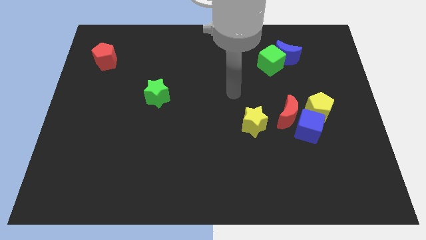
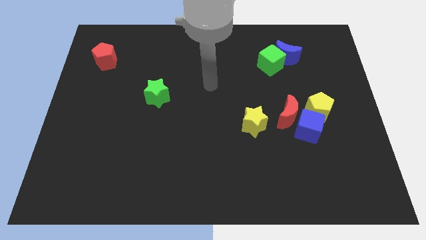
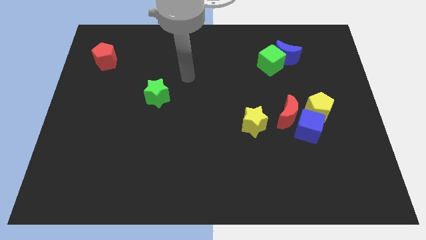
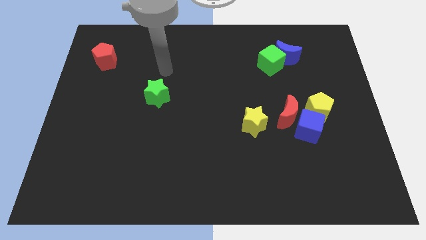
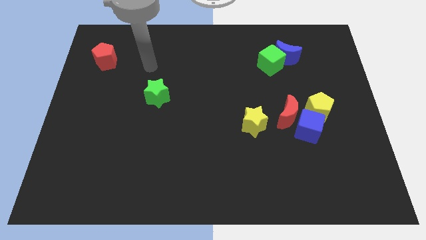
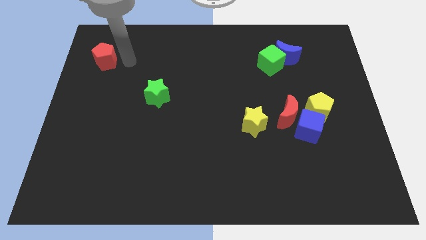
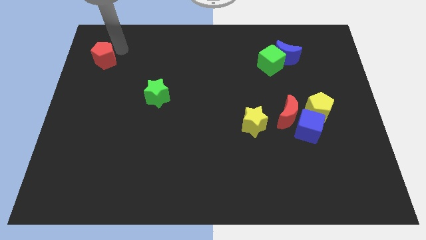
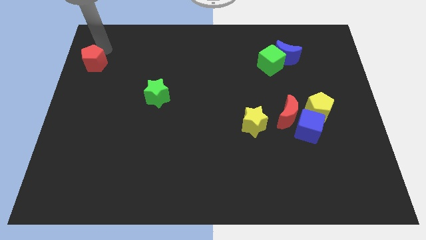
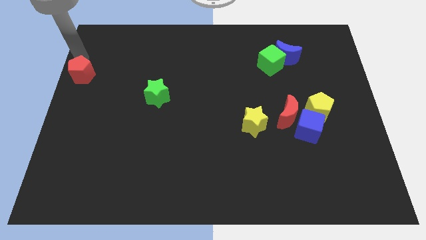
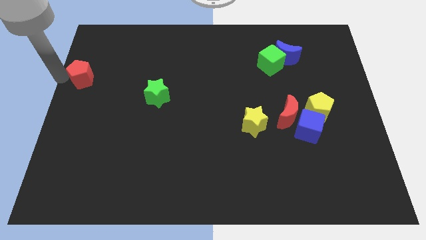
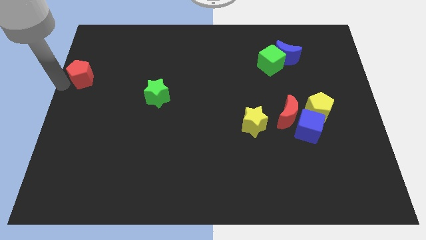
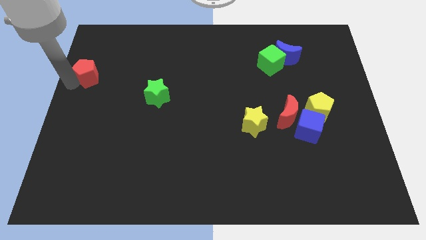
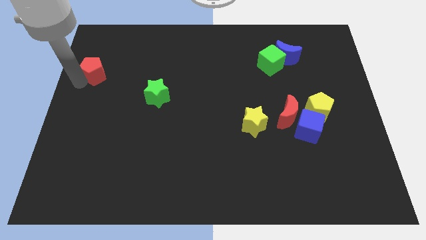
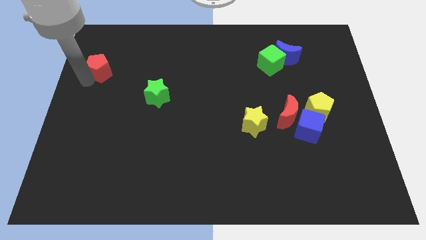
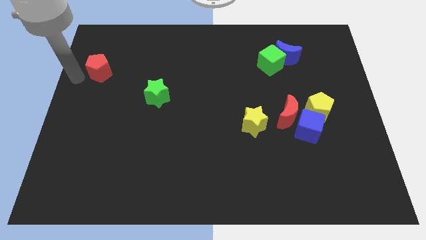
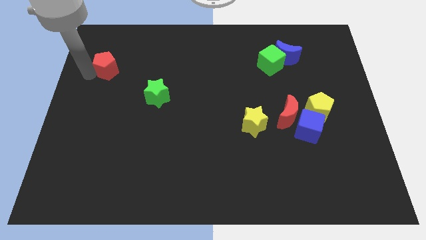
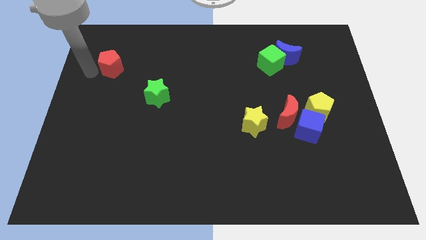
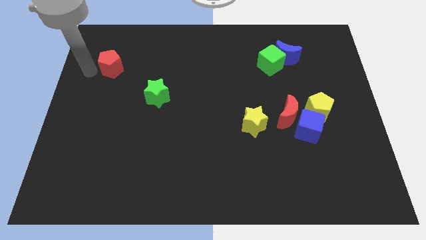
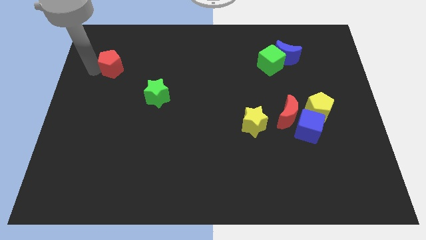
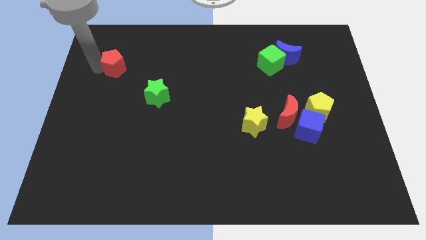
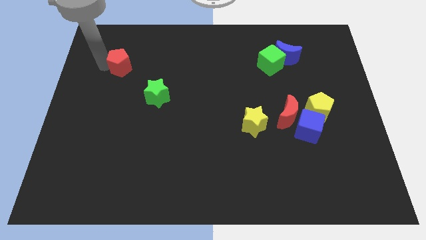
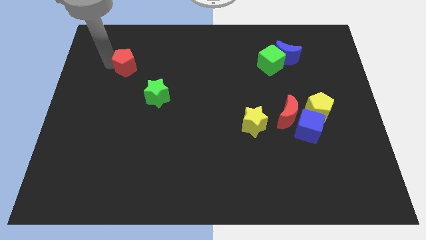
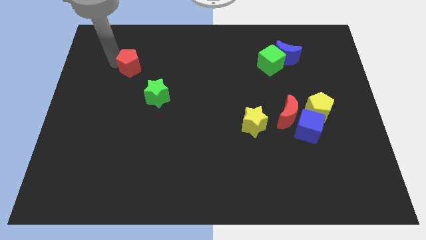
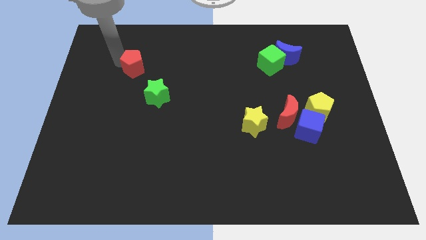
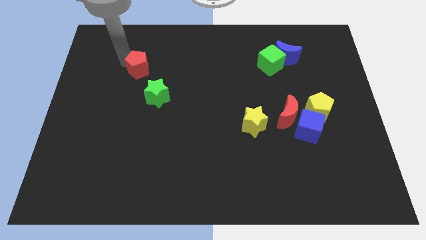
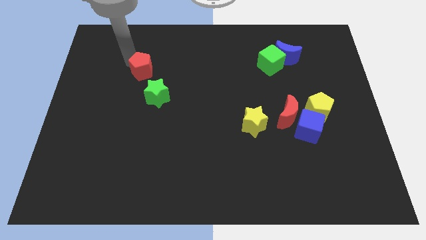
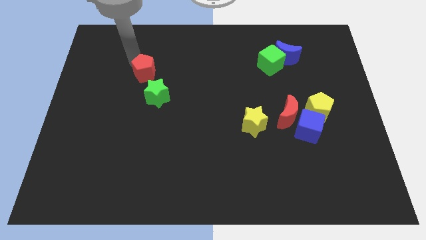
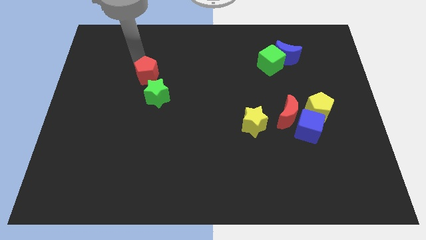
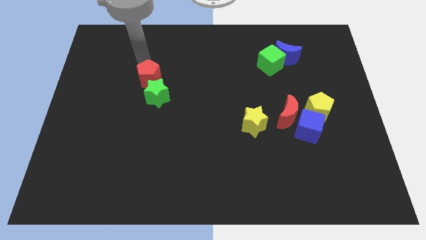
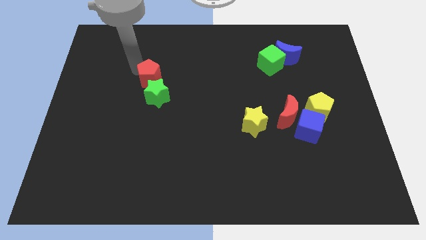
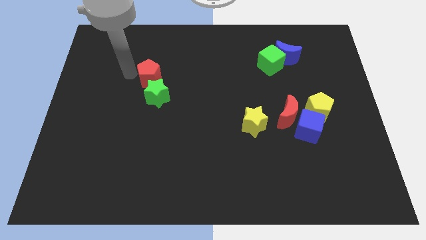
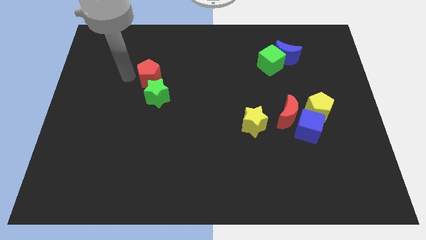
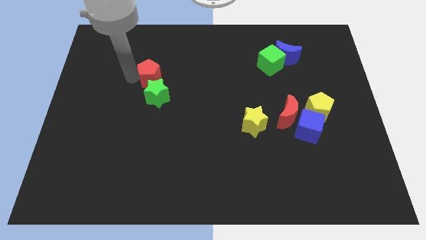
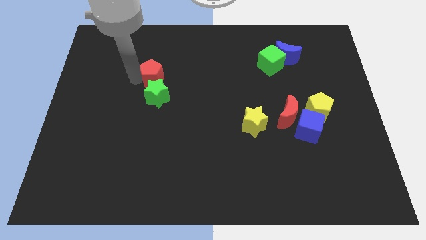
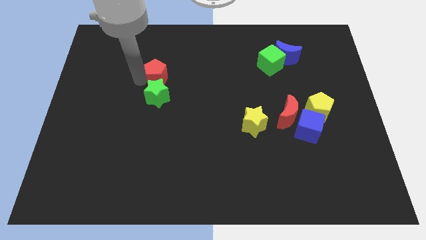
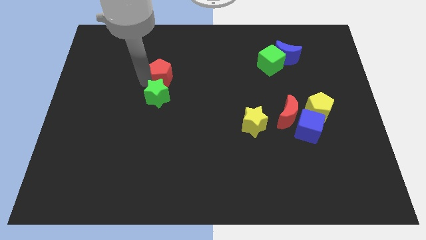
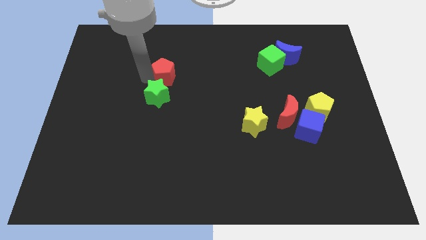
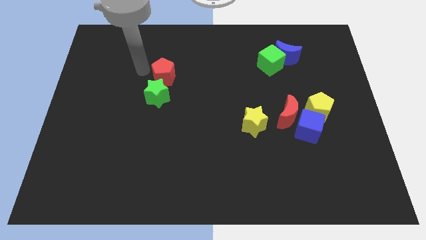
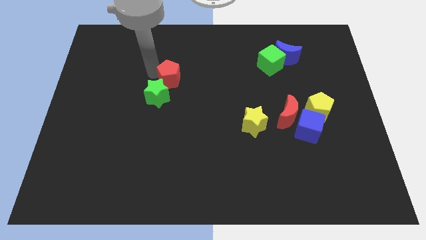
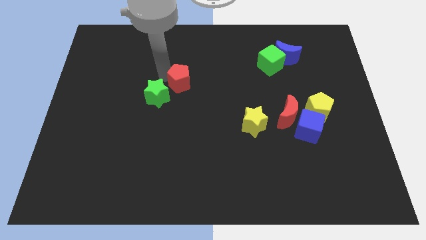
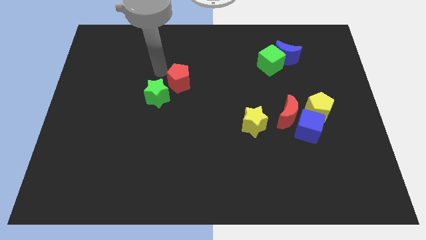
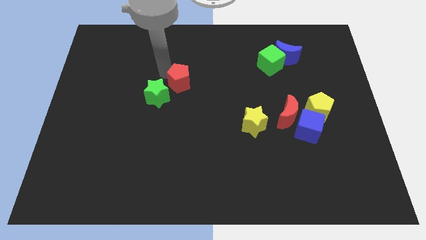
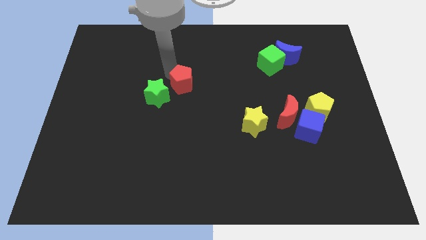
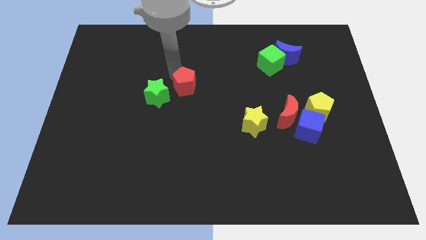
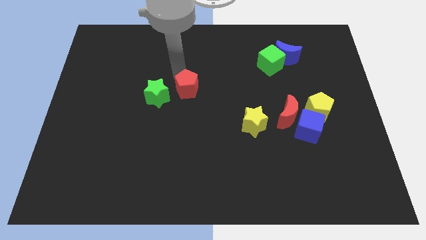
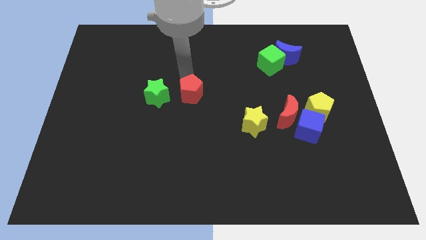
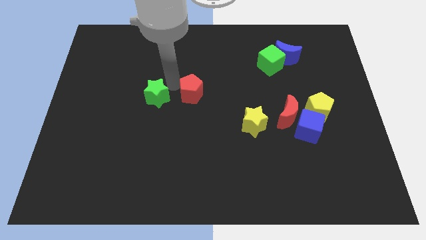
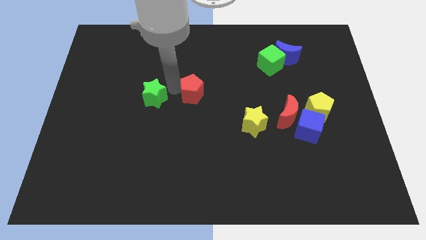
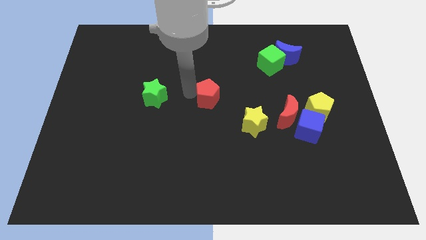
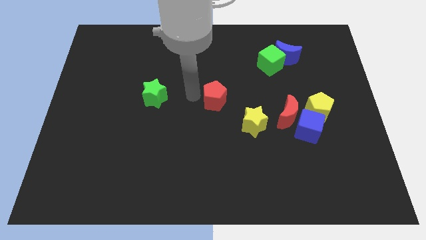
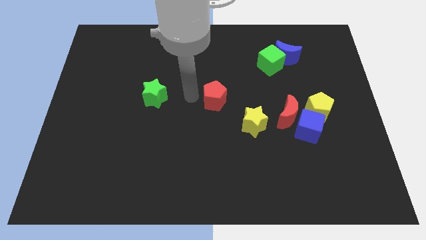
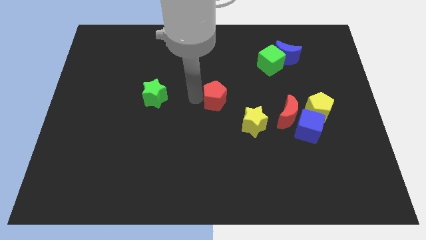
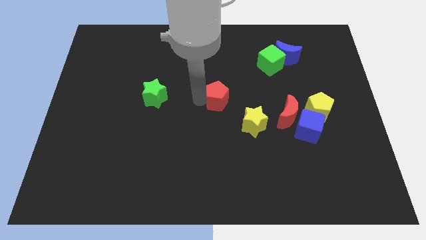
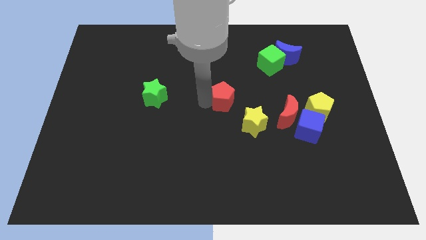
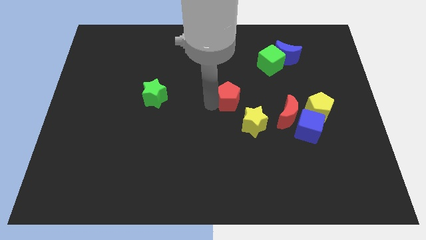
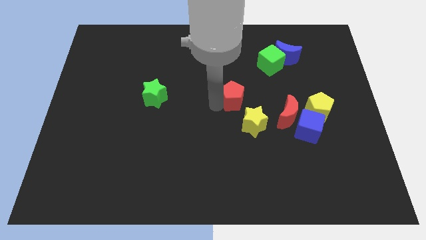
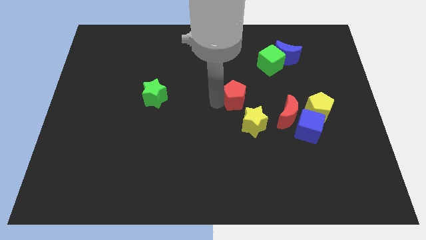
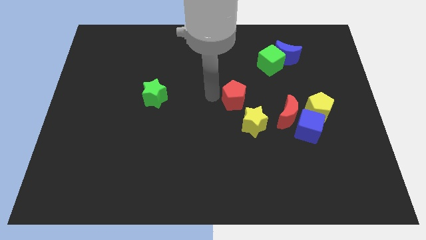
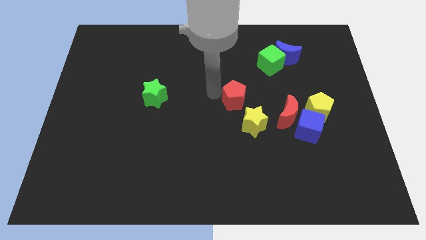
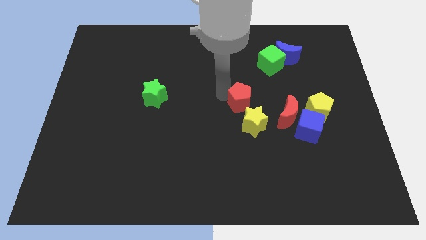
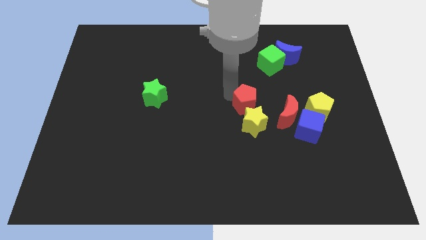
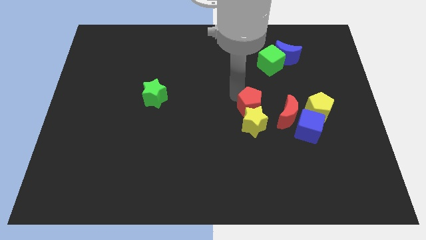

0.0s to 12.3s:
move the red pentagon left of the yellow pentagon

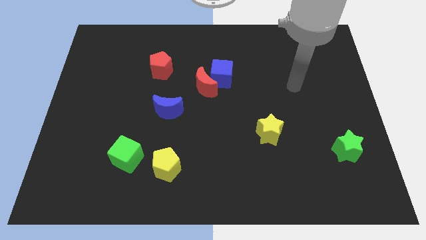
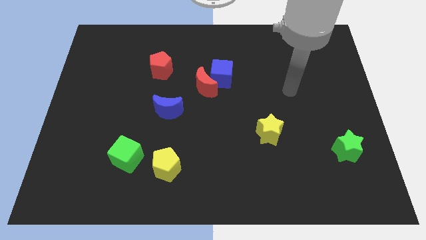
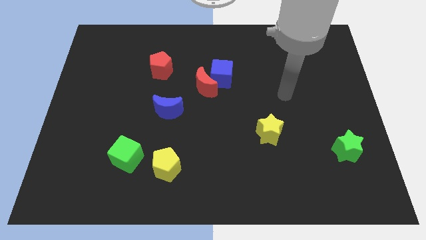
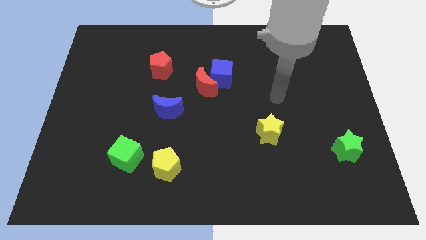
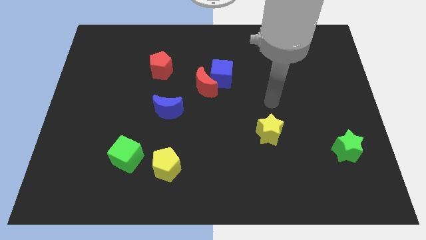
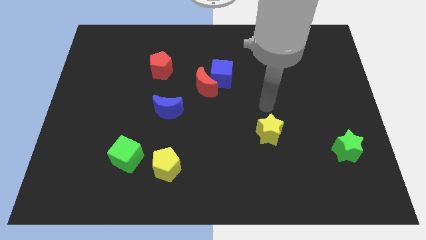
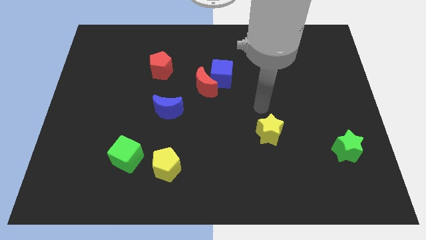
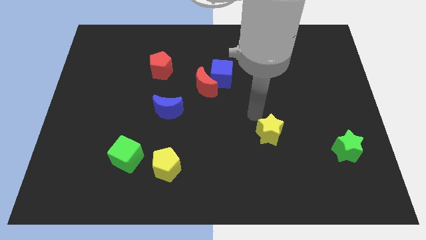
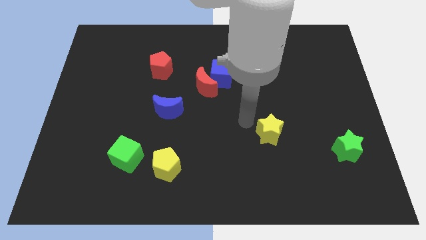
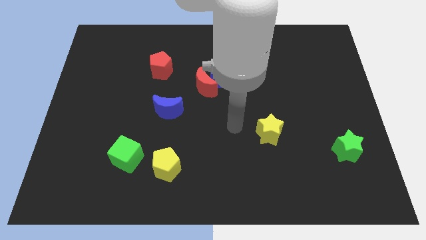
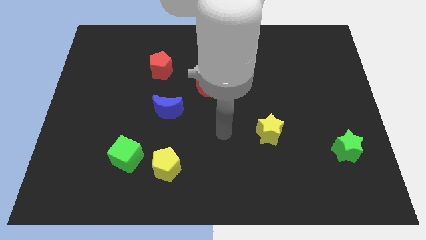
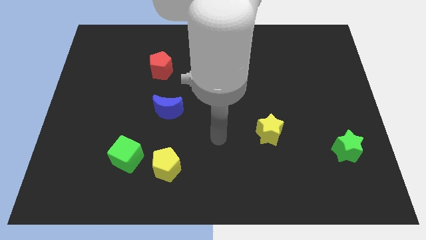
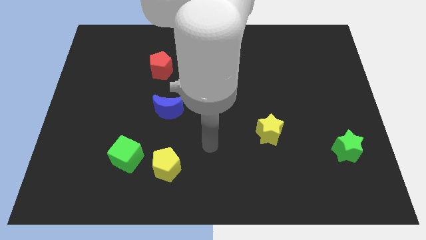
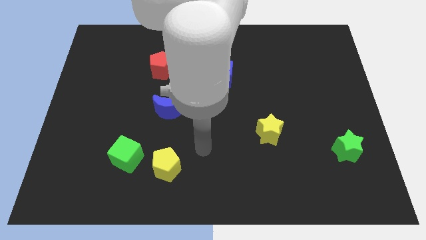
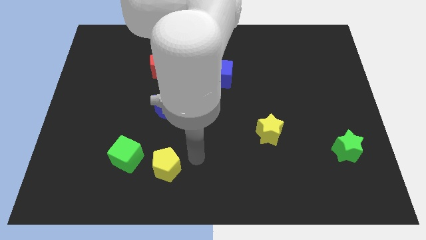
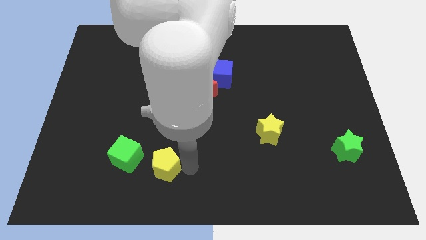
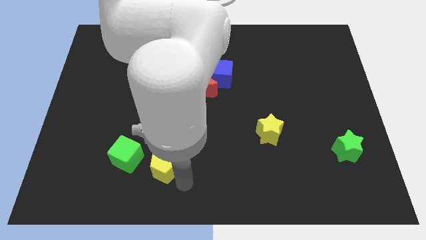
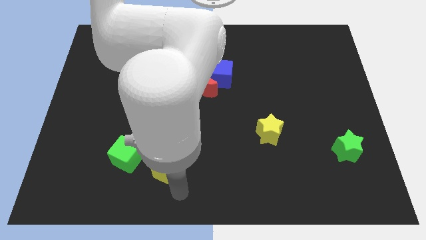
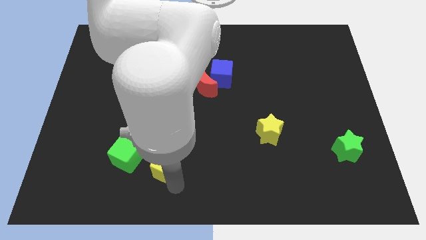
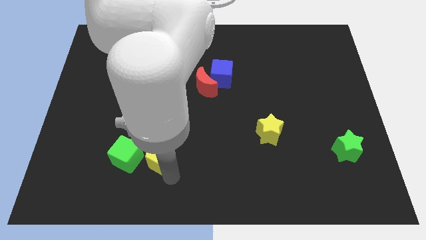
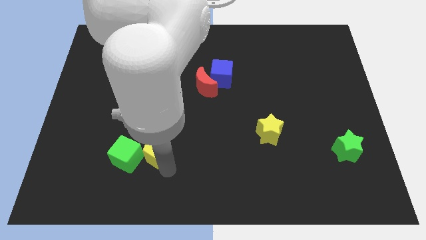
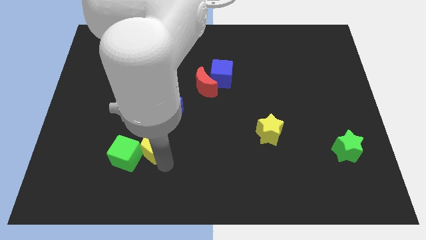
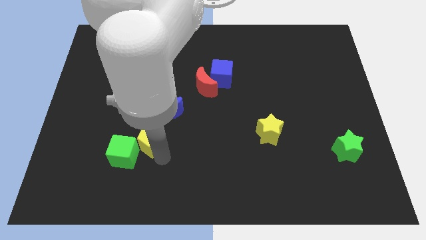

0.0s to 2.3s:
put the yellow pentagon to the bottom left of the blue moon
